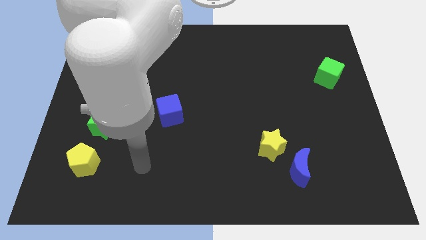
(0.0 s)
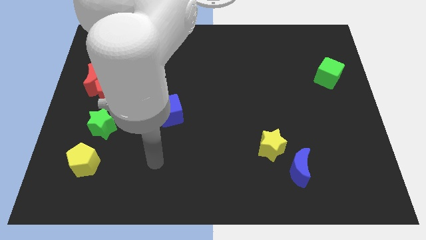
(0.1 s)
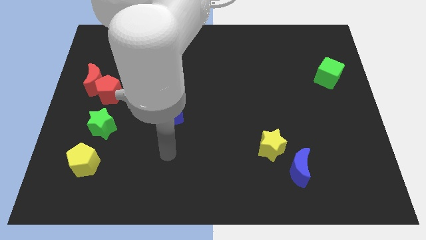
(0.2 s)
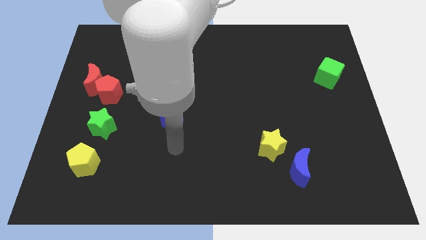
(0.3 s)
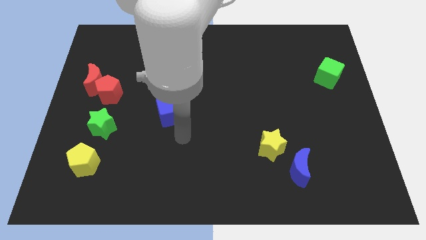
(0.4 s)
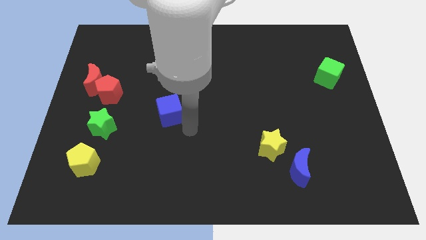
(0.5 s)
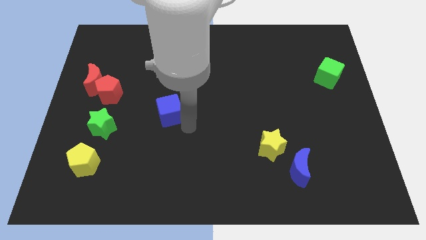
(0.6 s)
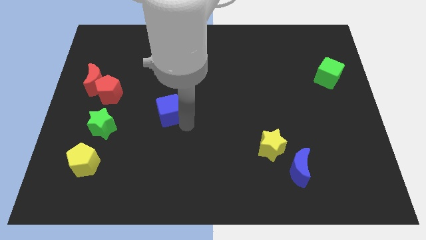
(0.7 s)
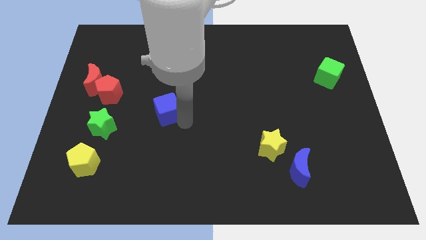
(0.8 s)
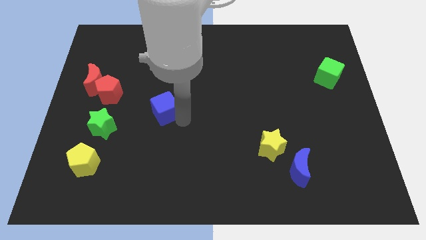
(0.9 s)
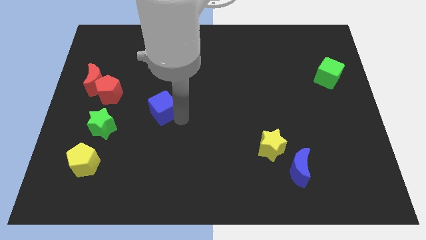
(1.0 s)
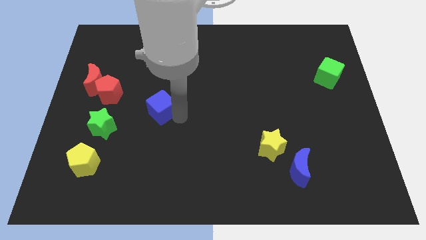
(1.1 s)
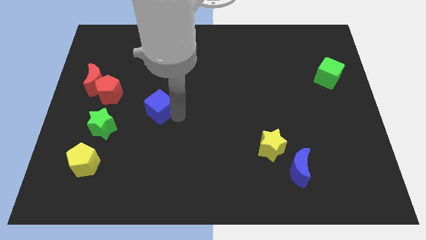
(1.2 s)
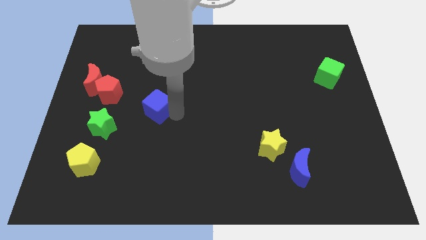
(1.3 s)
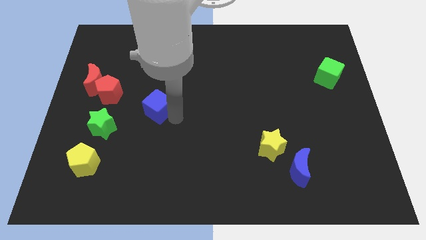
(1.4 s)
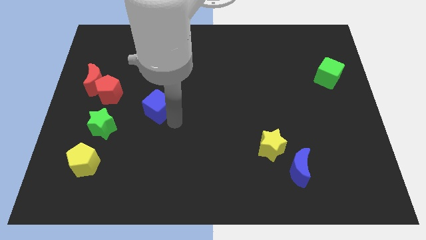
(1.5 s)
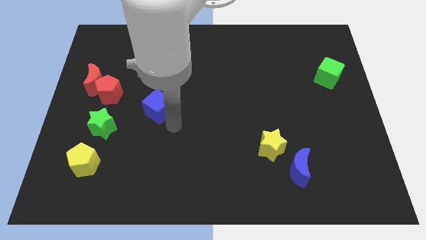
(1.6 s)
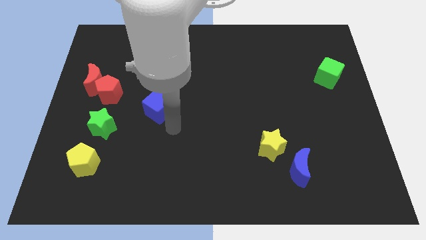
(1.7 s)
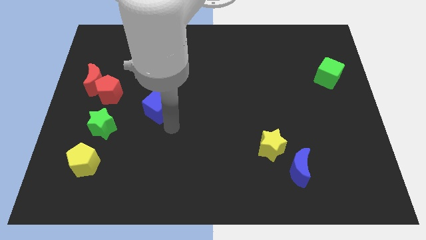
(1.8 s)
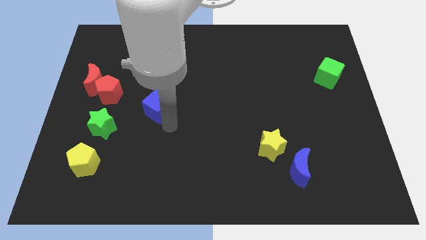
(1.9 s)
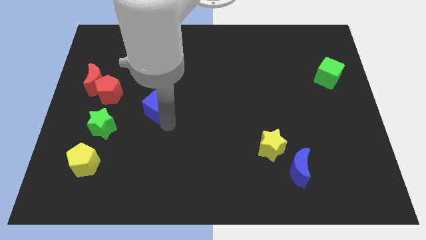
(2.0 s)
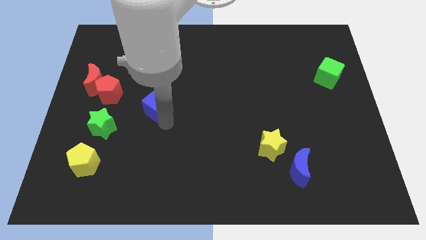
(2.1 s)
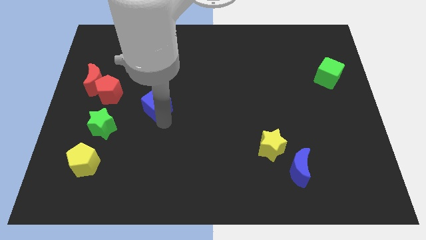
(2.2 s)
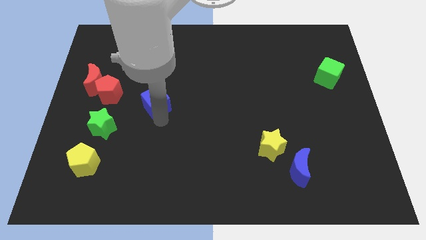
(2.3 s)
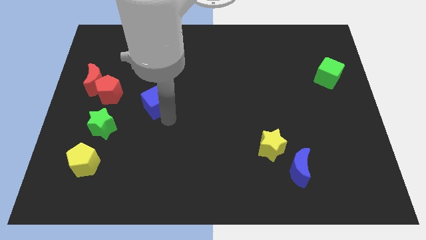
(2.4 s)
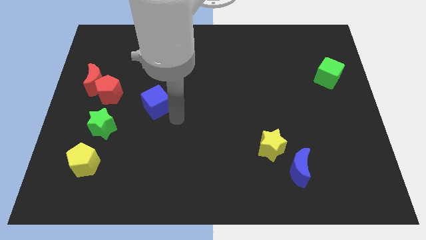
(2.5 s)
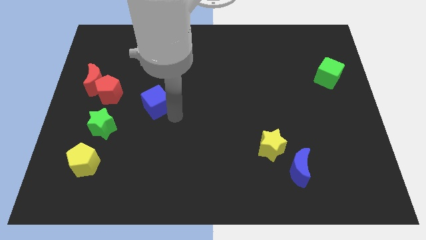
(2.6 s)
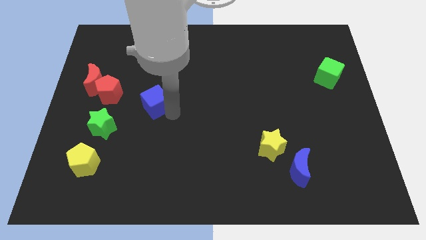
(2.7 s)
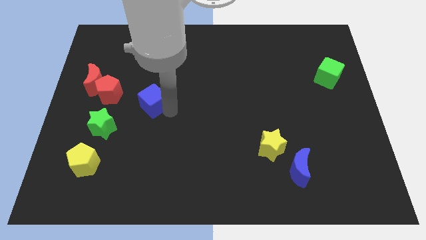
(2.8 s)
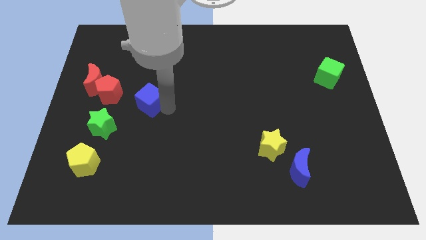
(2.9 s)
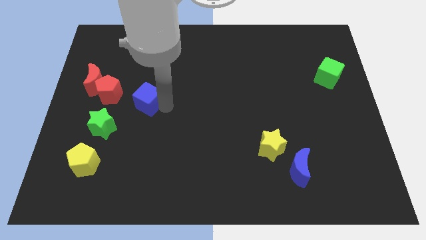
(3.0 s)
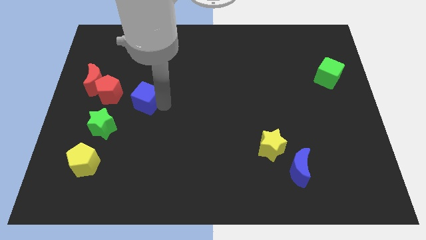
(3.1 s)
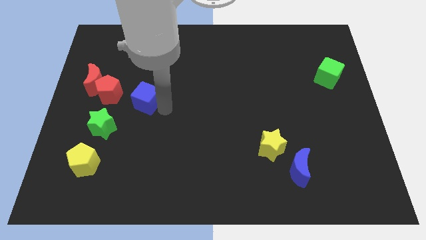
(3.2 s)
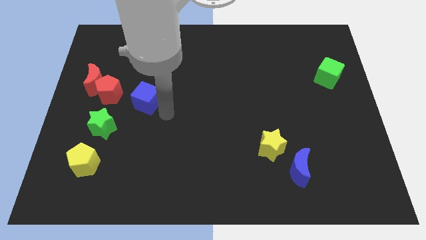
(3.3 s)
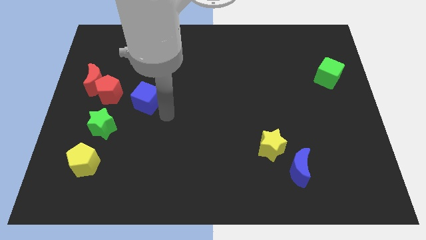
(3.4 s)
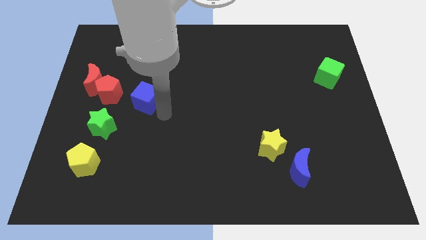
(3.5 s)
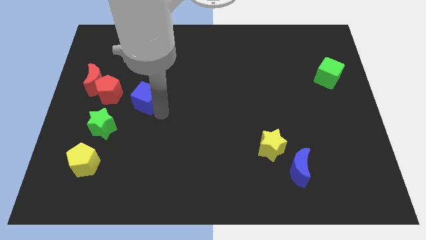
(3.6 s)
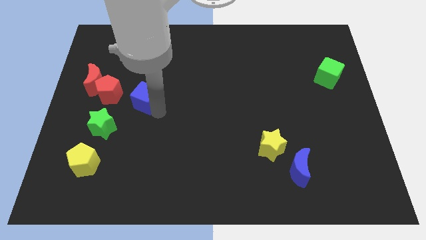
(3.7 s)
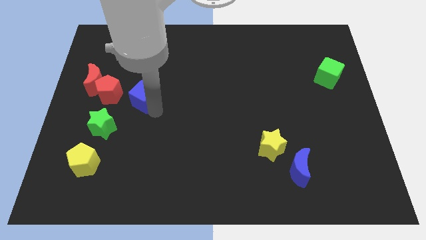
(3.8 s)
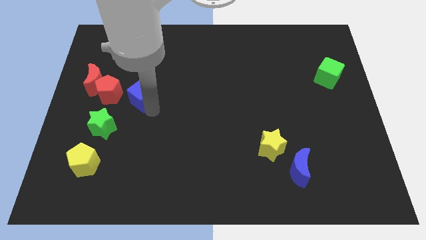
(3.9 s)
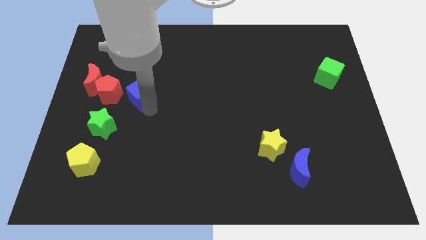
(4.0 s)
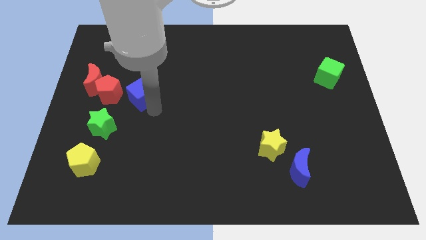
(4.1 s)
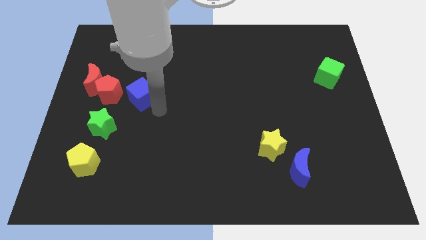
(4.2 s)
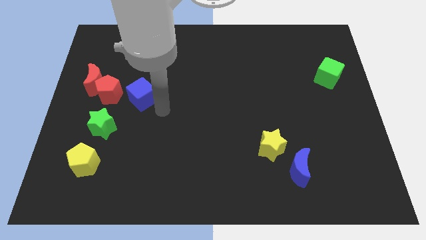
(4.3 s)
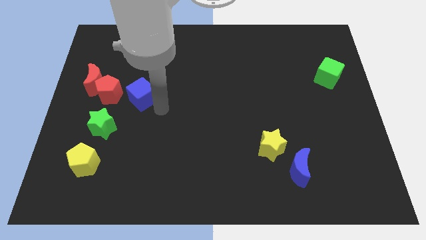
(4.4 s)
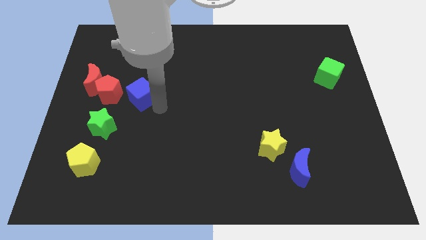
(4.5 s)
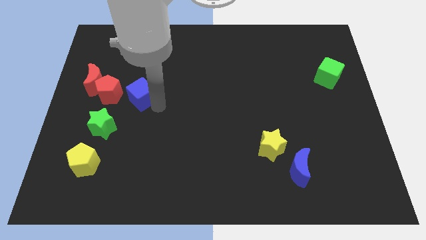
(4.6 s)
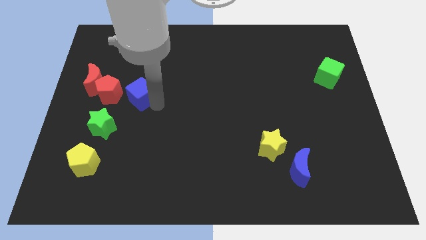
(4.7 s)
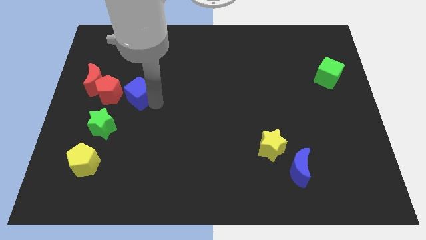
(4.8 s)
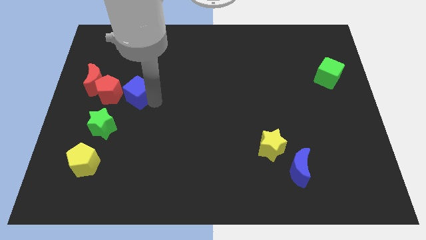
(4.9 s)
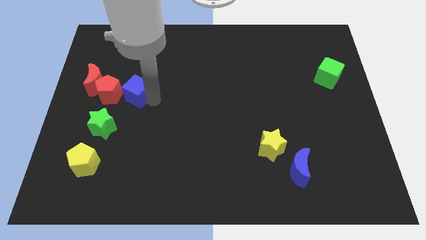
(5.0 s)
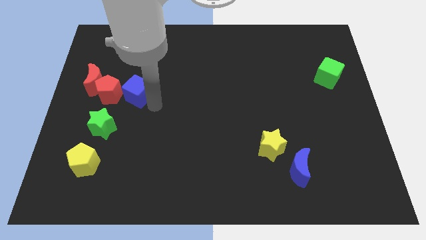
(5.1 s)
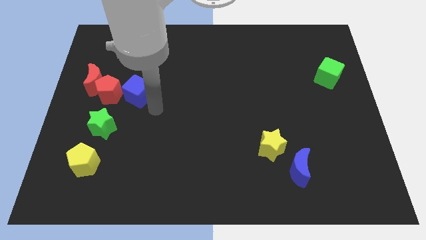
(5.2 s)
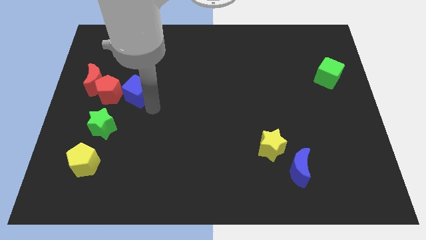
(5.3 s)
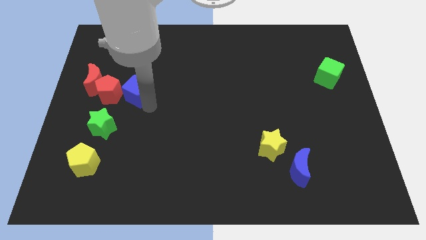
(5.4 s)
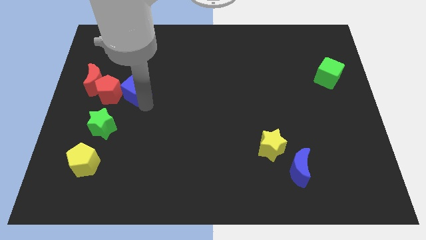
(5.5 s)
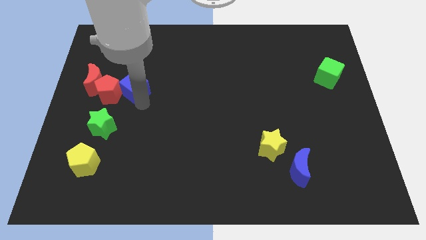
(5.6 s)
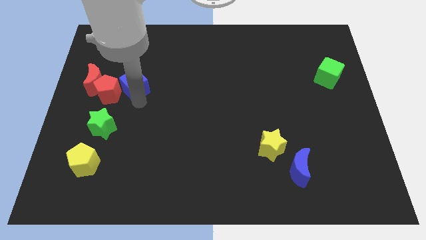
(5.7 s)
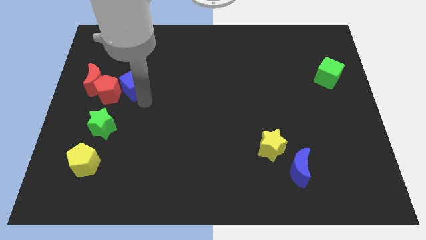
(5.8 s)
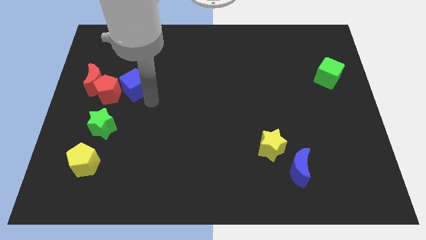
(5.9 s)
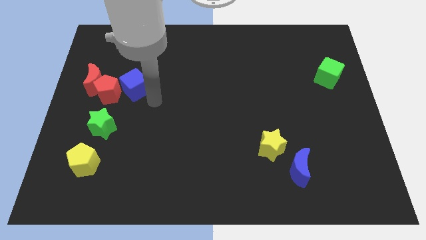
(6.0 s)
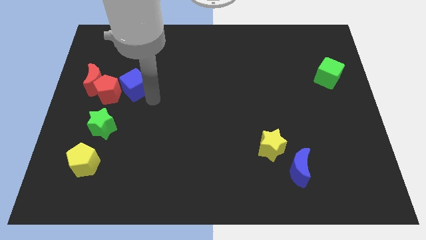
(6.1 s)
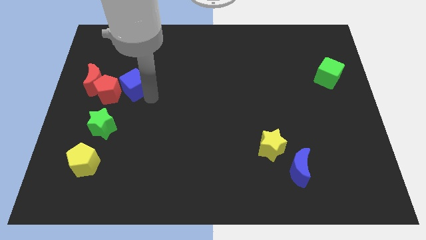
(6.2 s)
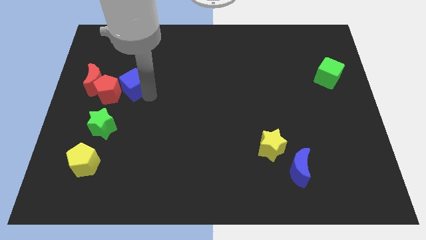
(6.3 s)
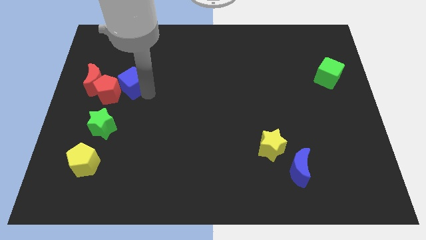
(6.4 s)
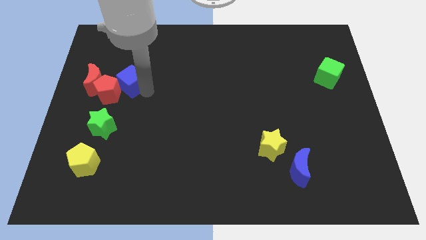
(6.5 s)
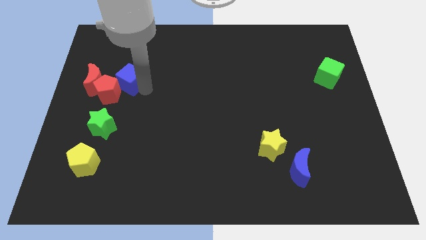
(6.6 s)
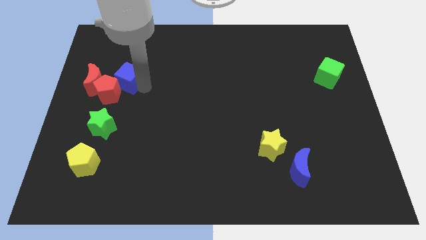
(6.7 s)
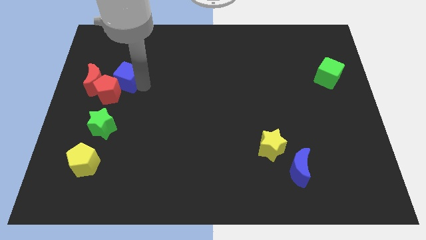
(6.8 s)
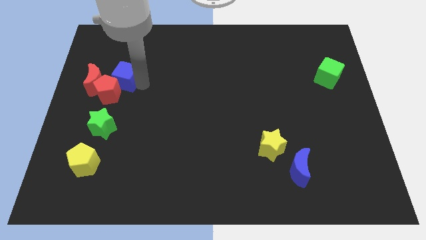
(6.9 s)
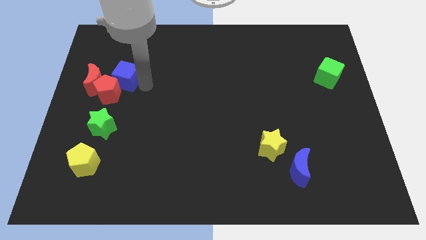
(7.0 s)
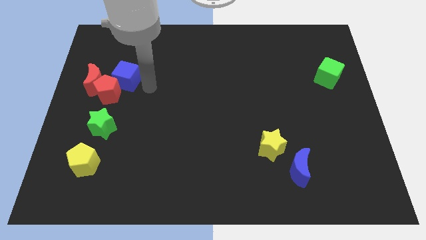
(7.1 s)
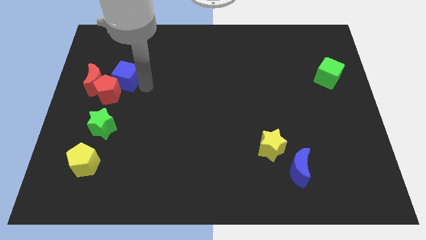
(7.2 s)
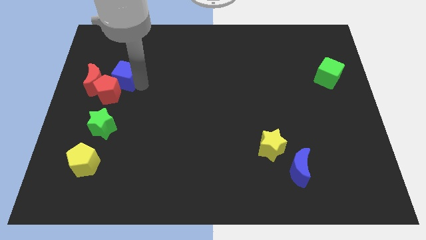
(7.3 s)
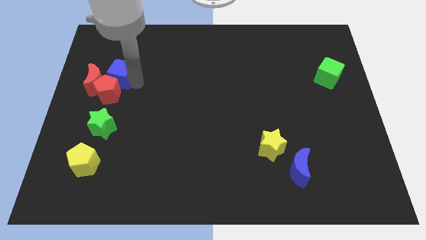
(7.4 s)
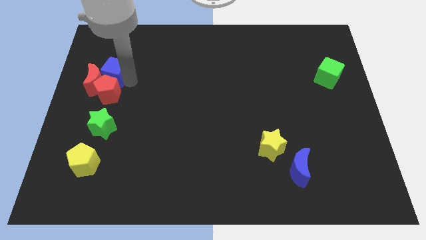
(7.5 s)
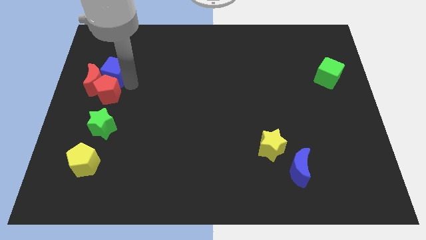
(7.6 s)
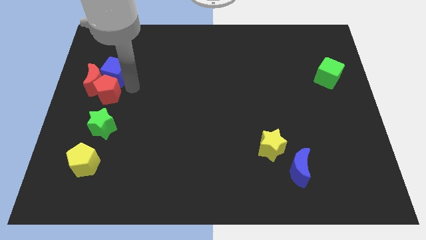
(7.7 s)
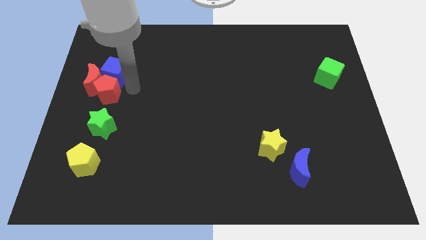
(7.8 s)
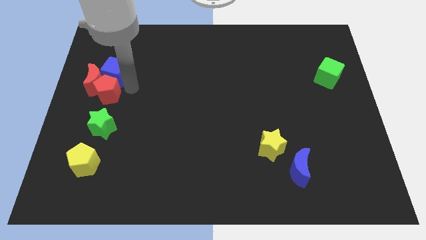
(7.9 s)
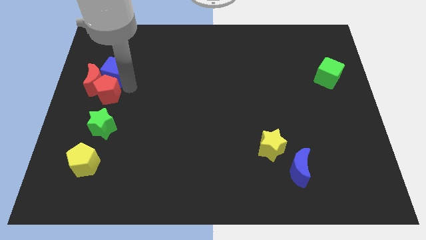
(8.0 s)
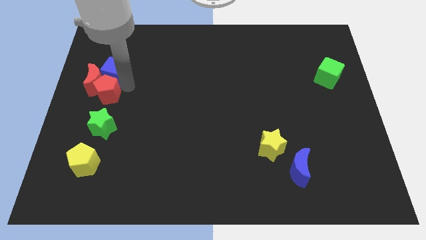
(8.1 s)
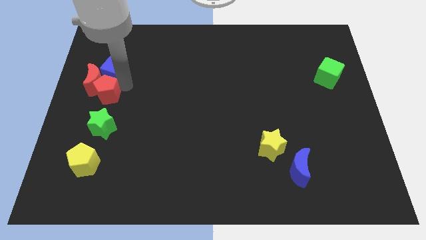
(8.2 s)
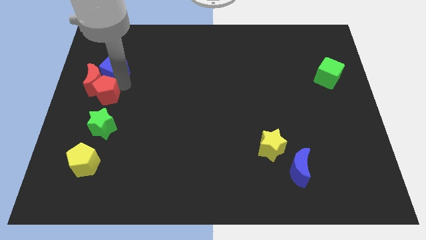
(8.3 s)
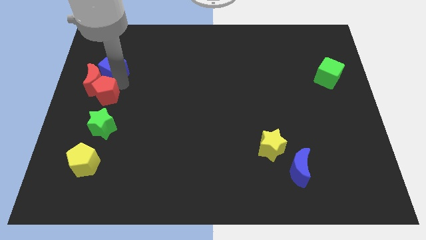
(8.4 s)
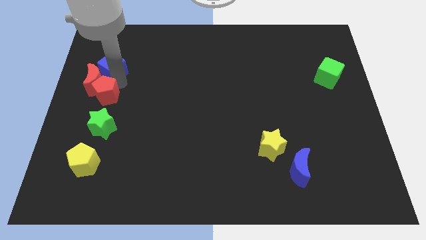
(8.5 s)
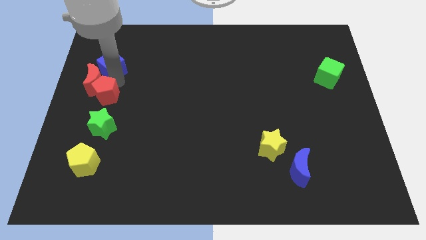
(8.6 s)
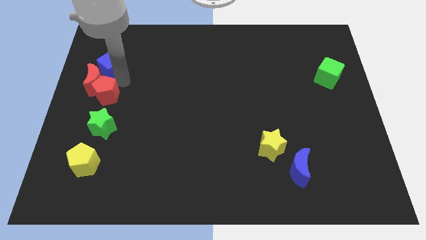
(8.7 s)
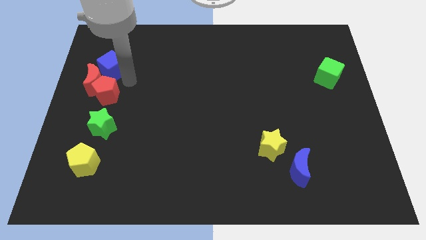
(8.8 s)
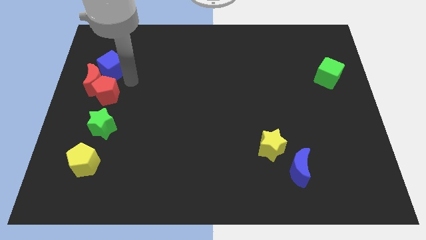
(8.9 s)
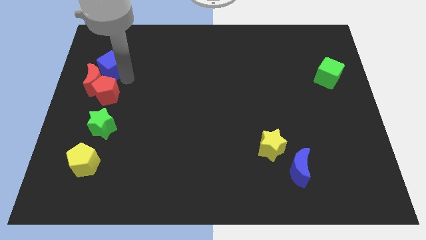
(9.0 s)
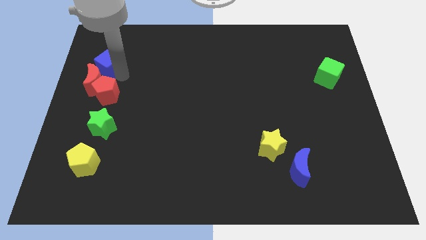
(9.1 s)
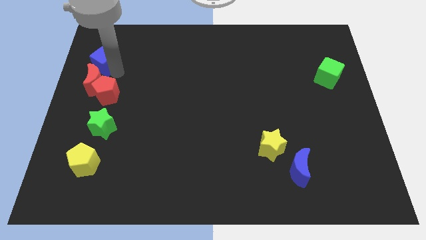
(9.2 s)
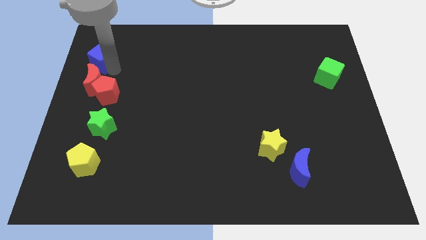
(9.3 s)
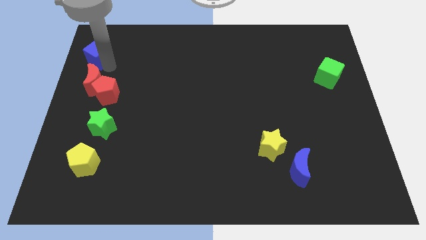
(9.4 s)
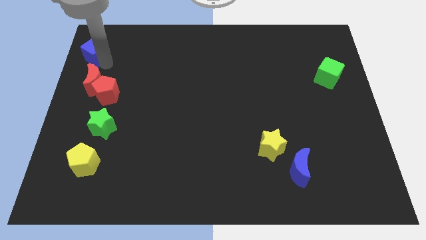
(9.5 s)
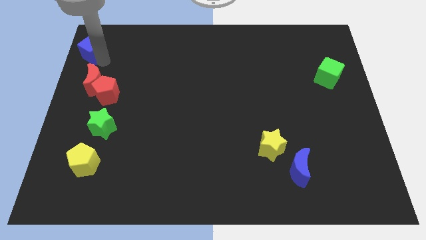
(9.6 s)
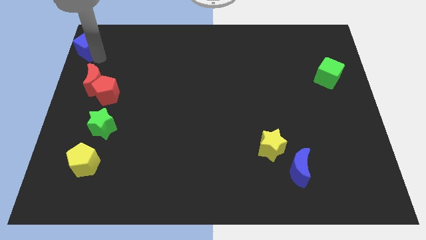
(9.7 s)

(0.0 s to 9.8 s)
put the blue cube to the top left
